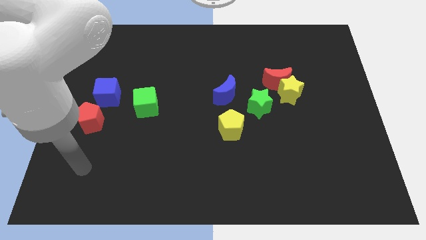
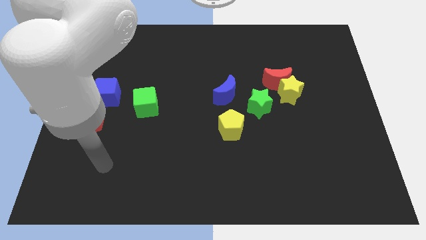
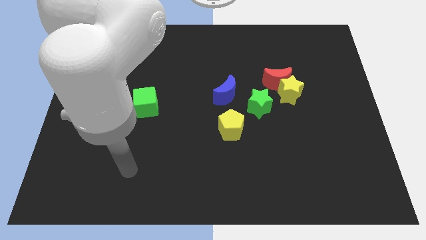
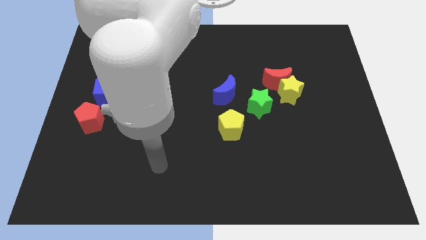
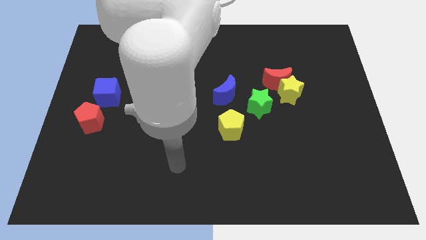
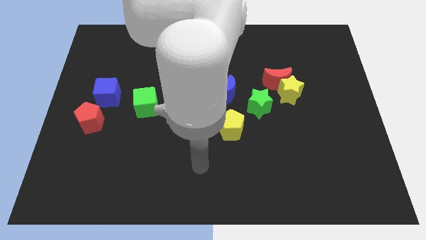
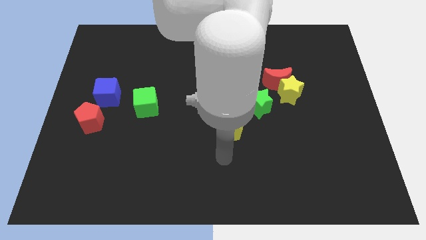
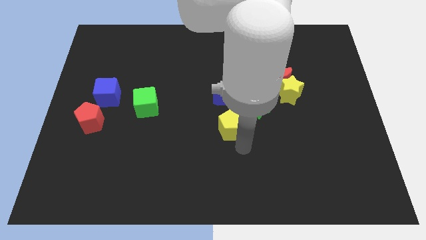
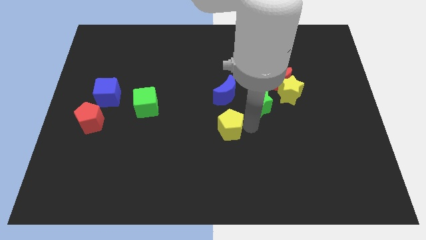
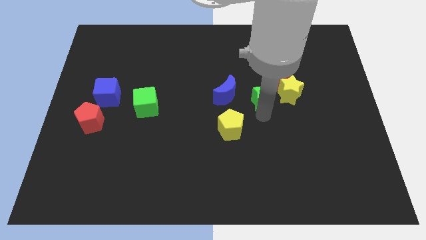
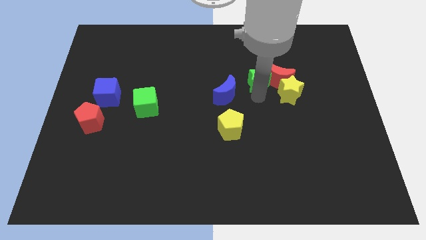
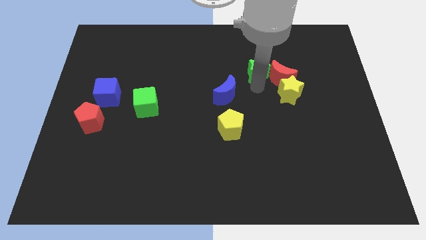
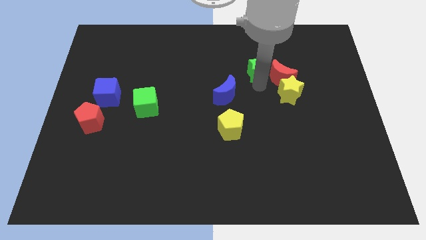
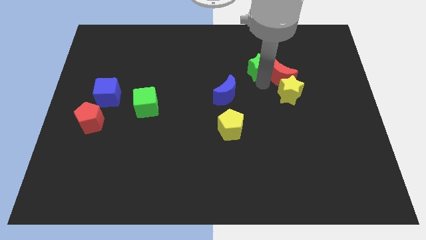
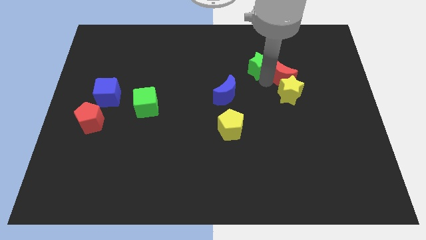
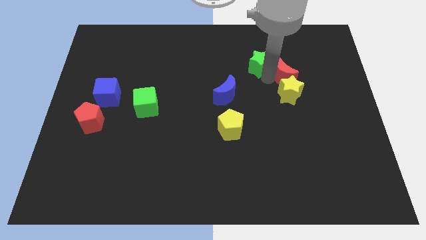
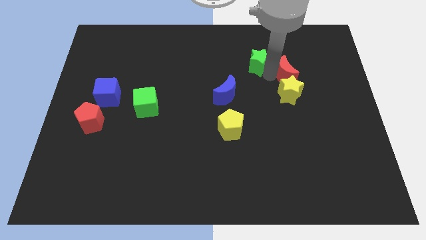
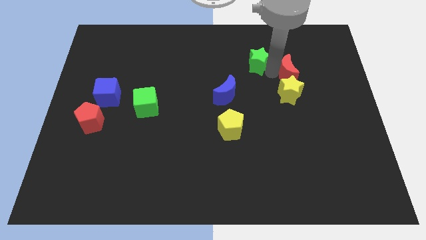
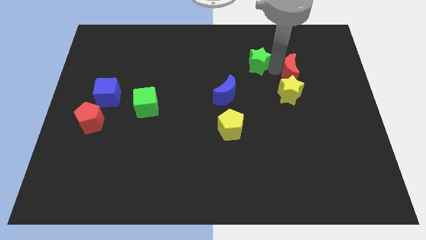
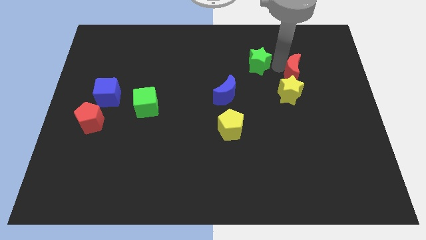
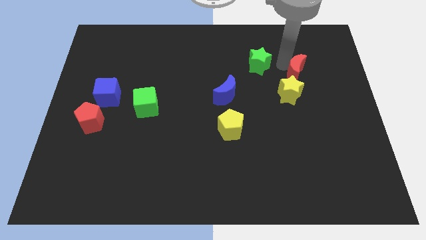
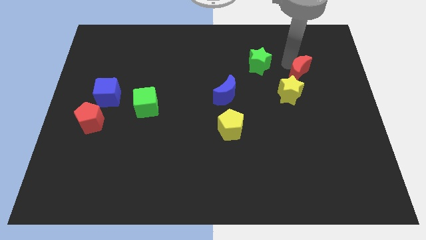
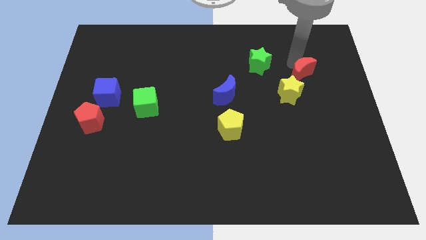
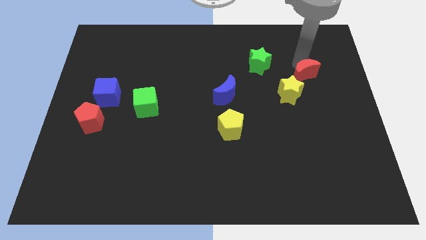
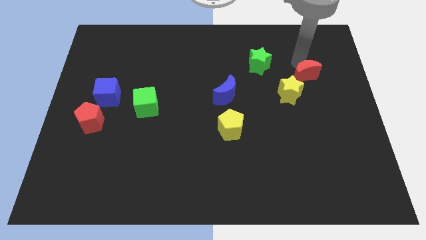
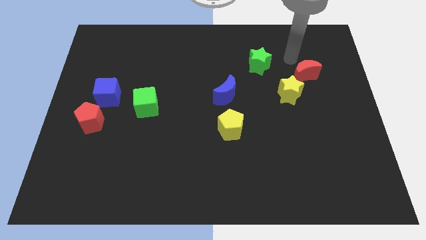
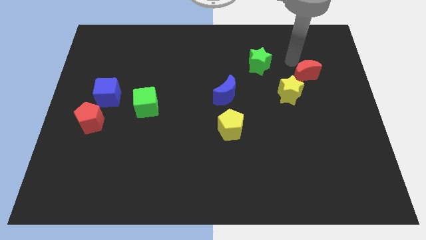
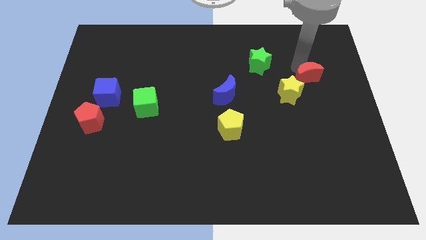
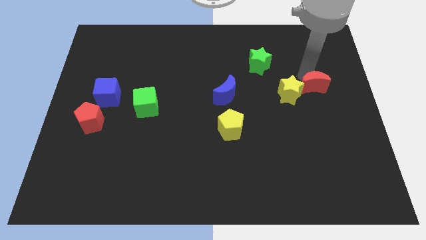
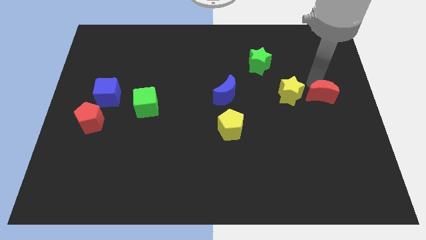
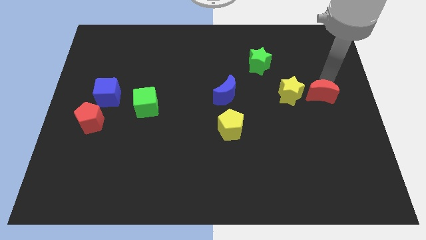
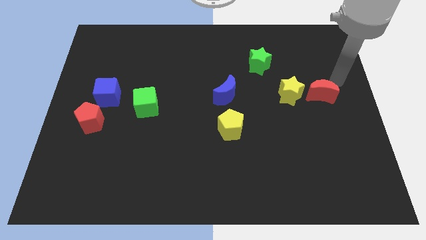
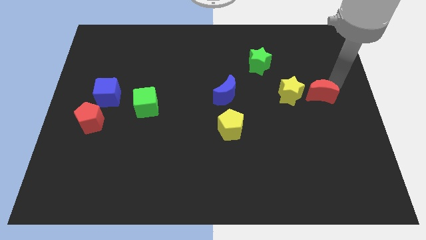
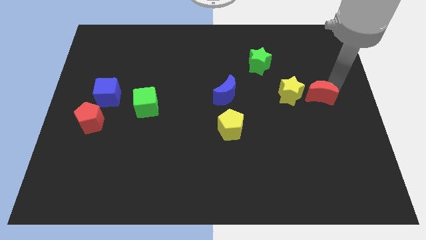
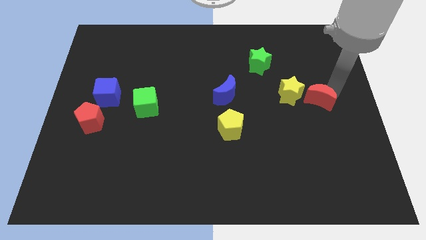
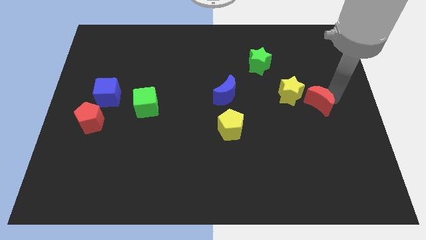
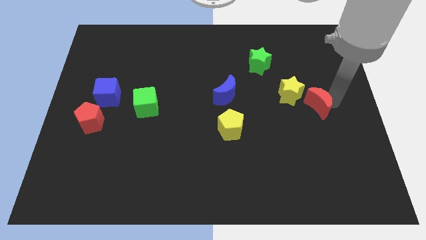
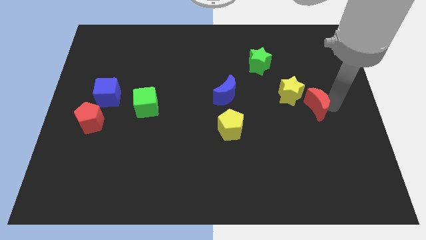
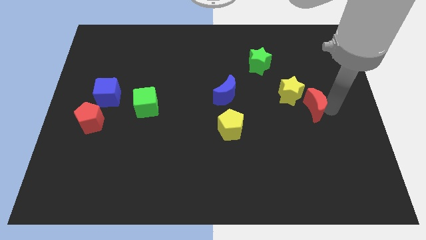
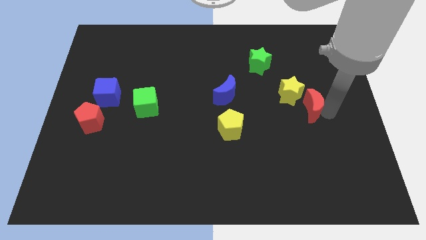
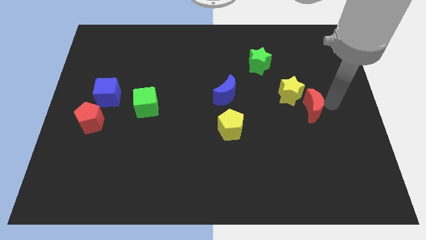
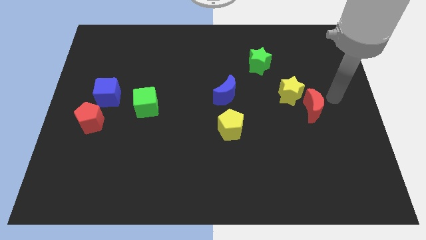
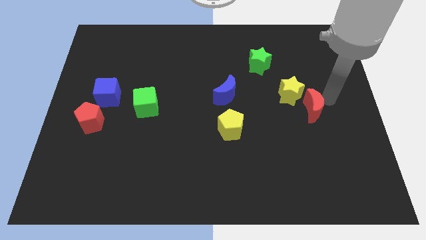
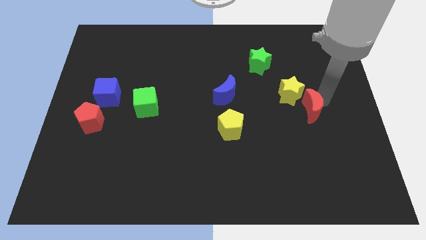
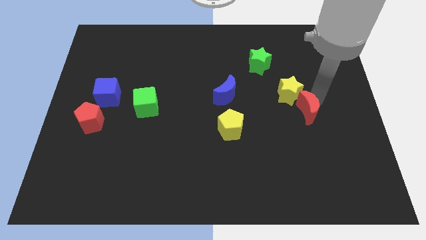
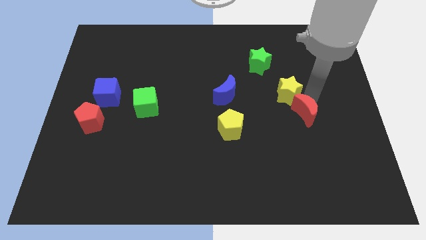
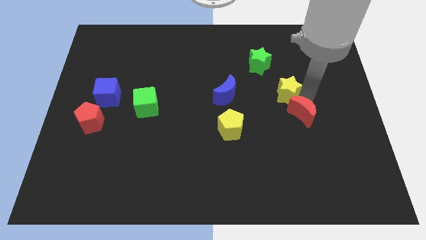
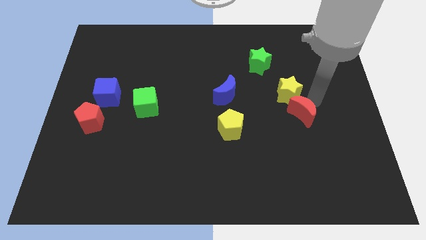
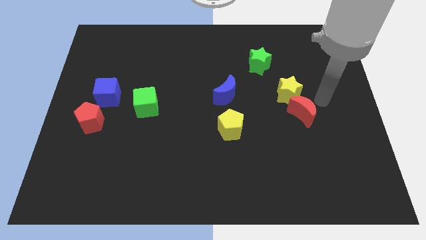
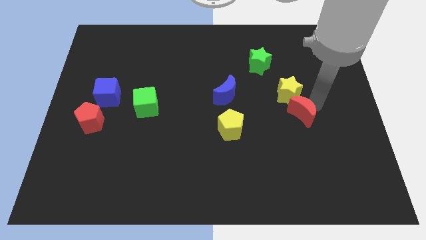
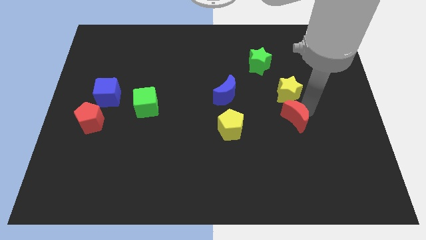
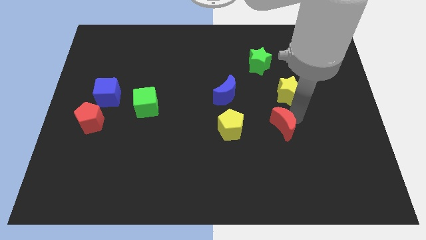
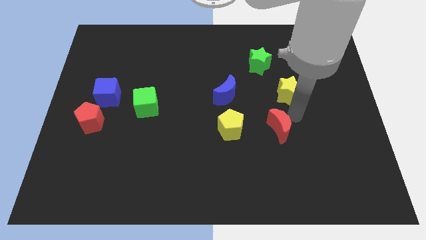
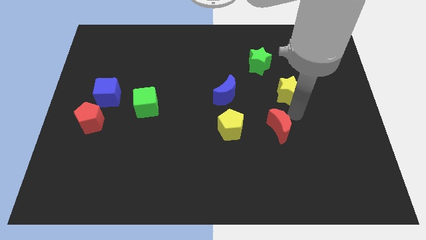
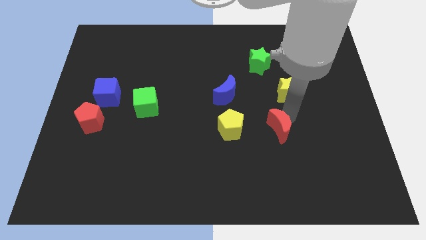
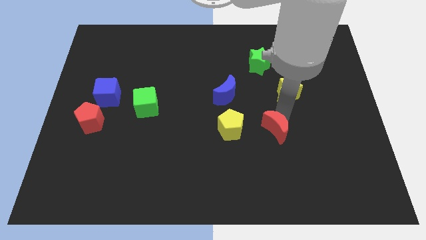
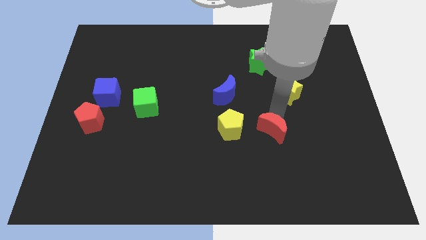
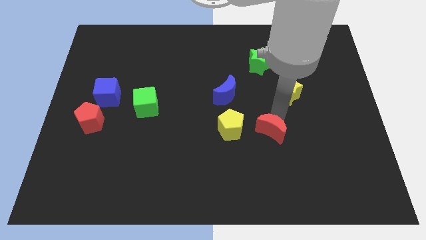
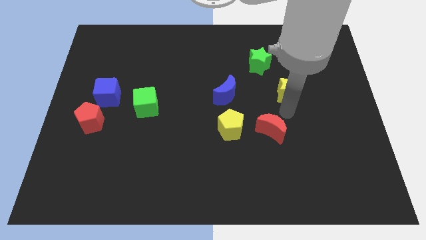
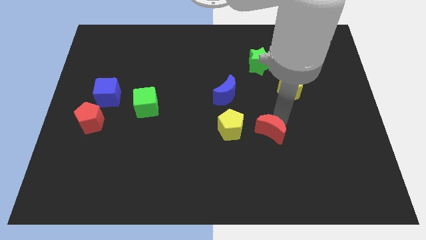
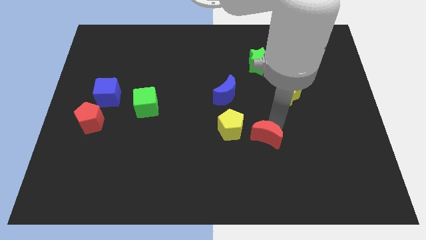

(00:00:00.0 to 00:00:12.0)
slide the red moon diagonally down and to the right of the yellow pentagon

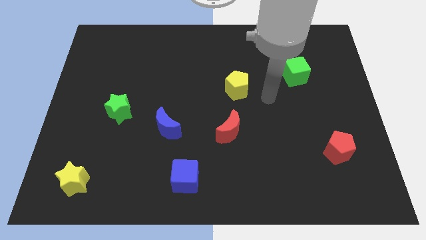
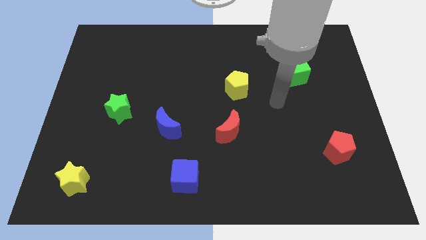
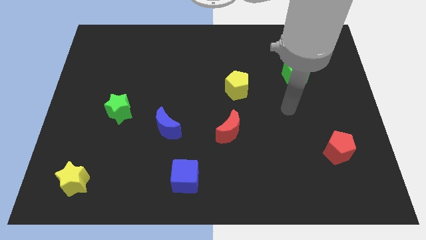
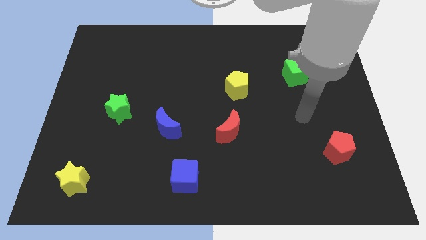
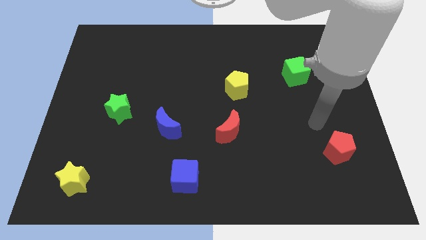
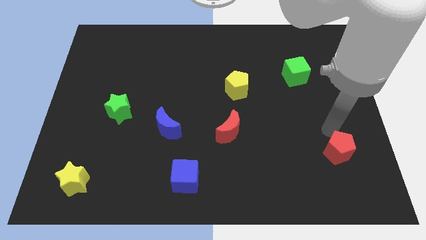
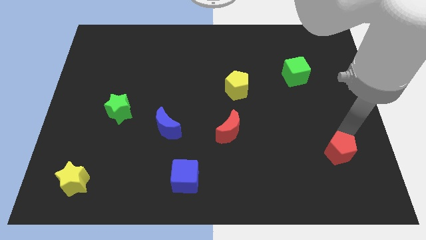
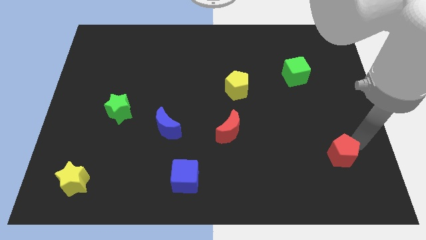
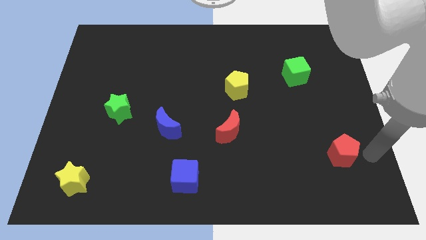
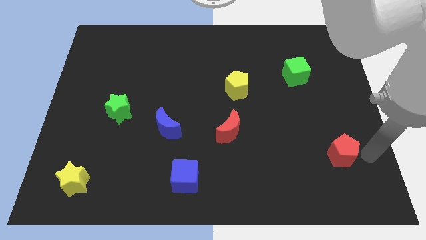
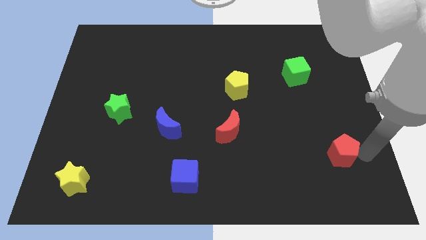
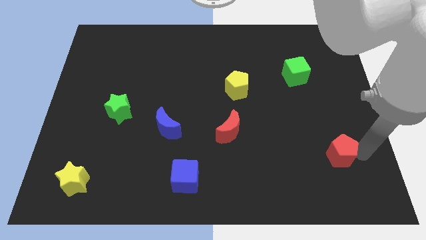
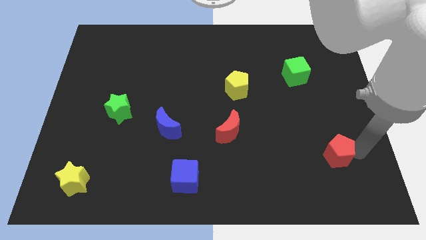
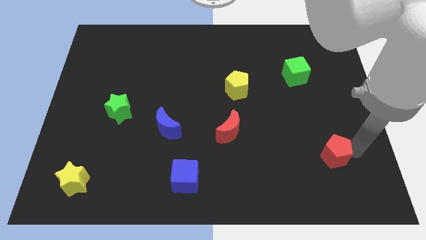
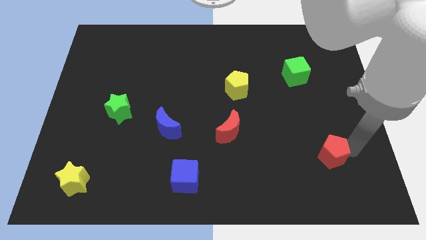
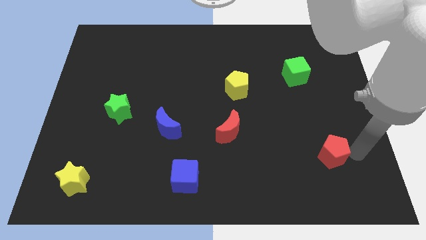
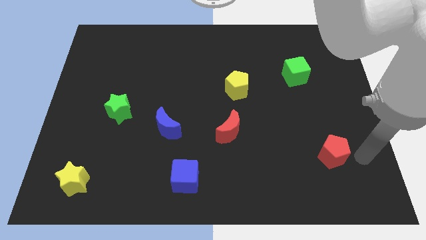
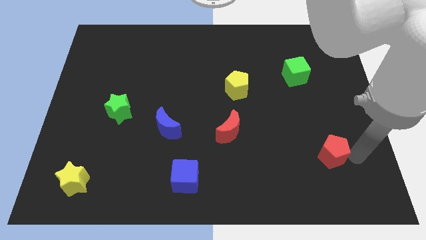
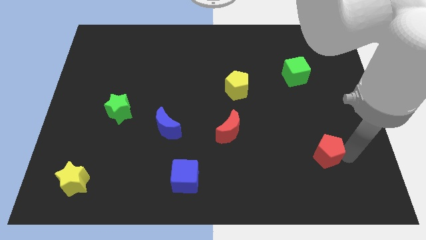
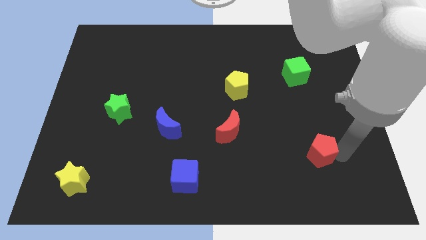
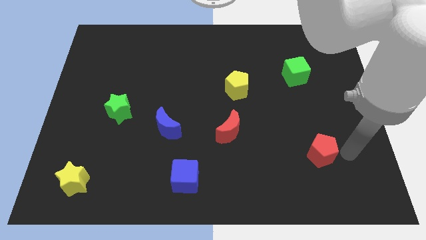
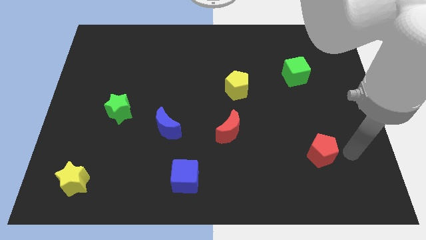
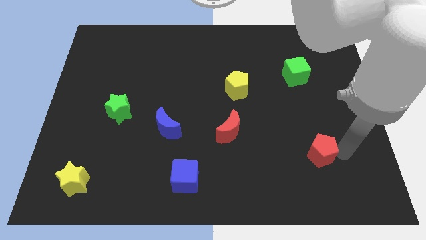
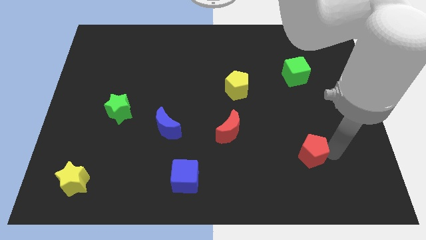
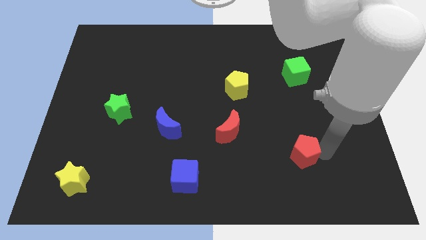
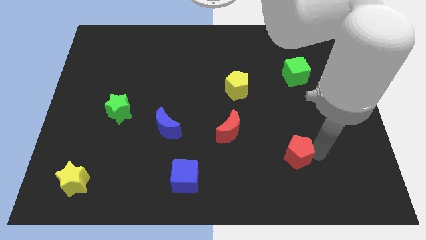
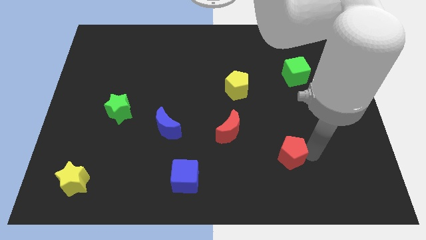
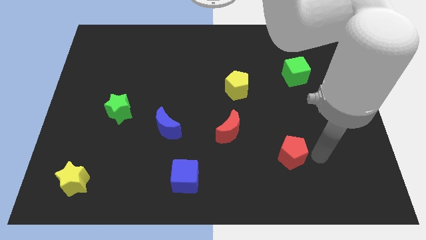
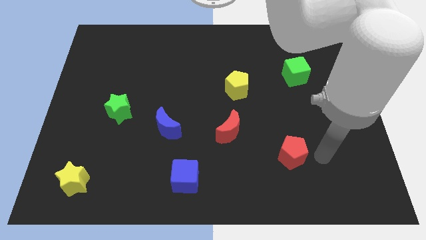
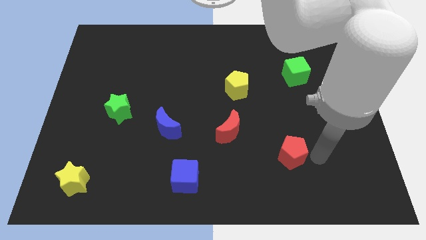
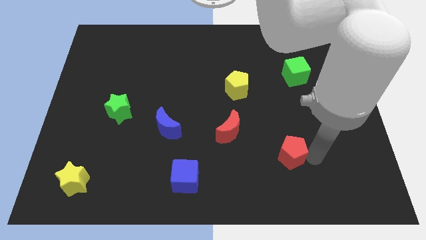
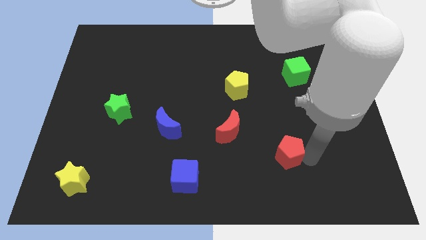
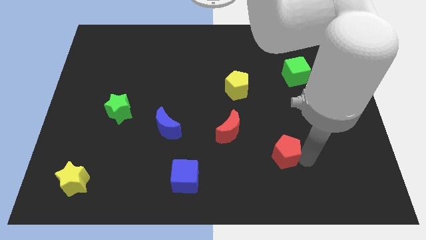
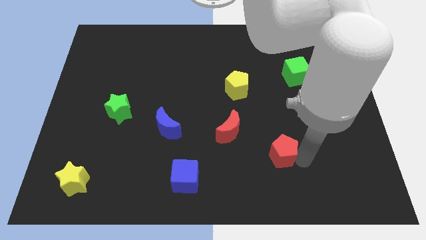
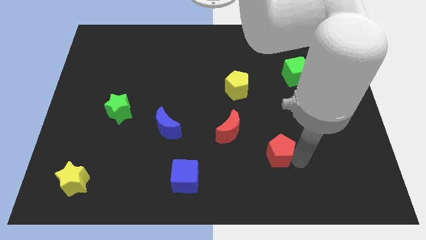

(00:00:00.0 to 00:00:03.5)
move the red pentagon to the bottom right of the red moon
